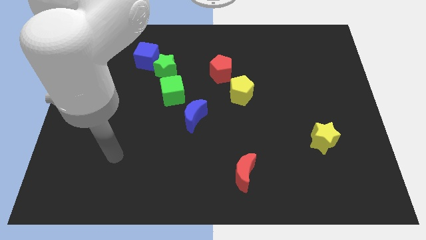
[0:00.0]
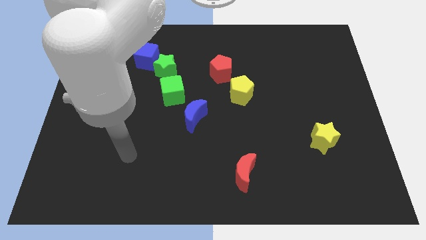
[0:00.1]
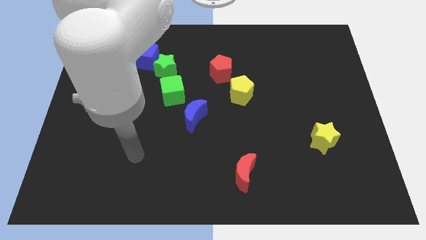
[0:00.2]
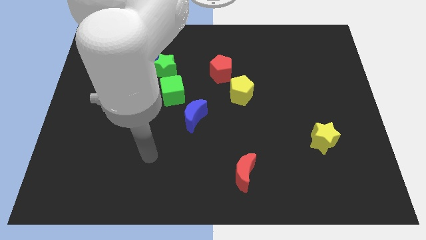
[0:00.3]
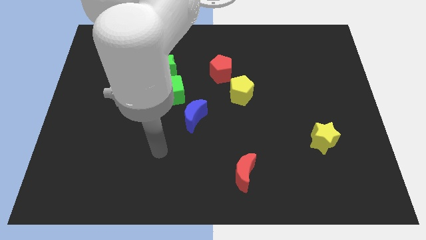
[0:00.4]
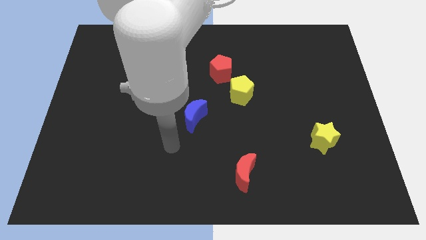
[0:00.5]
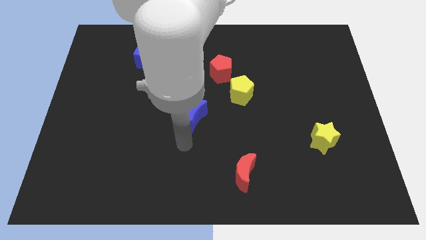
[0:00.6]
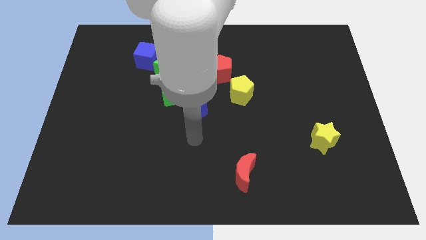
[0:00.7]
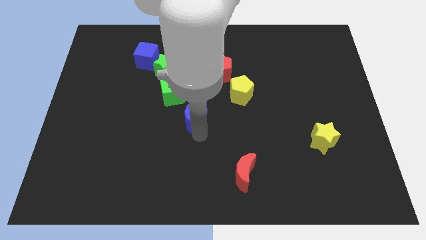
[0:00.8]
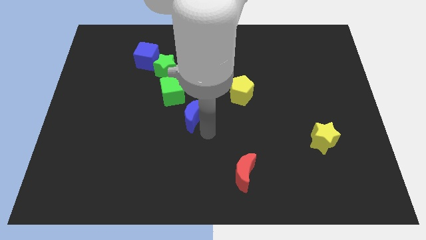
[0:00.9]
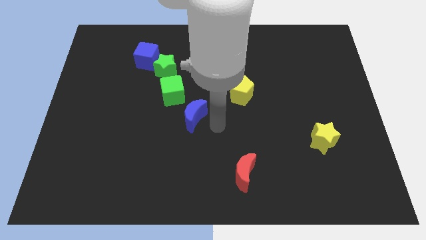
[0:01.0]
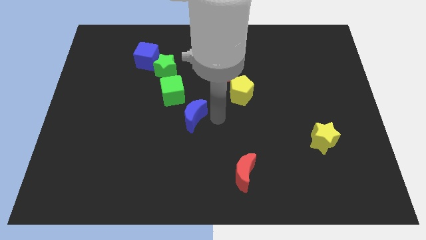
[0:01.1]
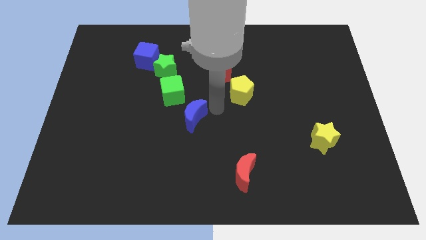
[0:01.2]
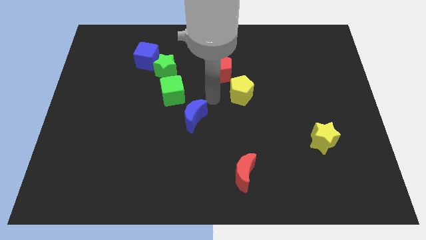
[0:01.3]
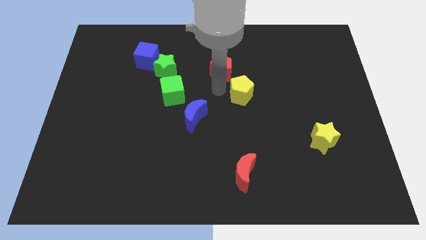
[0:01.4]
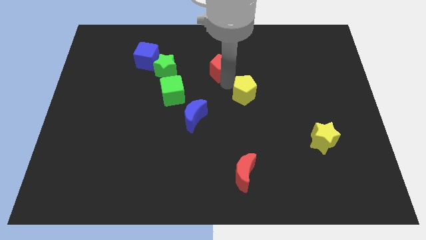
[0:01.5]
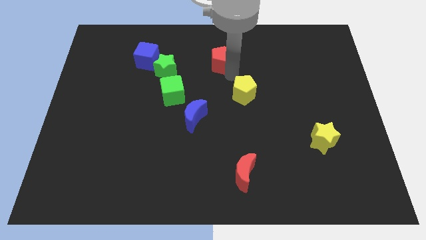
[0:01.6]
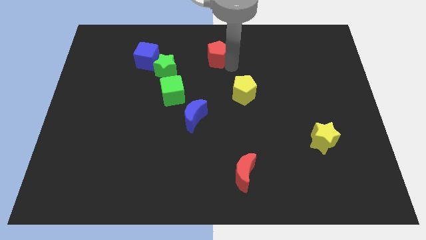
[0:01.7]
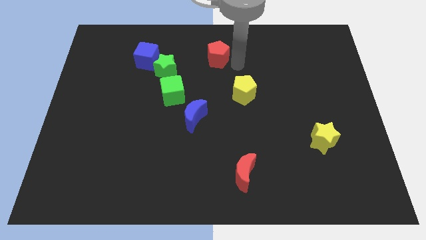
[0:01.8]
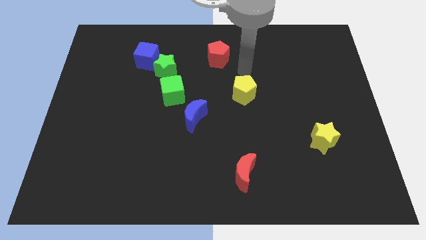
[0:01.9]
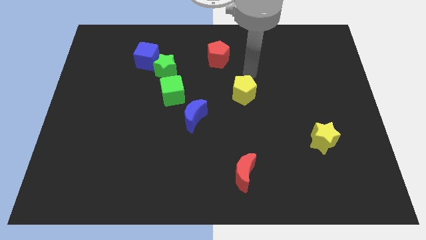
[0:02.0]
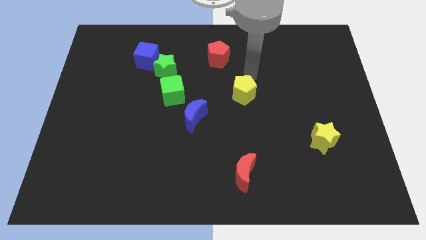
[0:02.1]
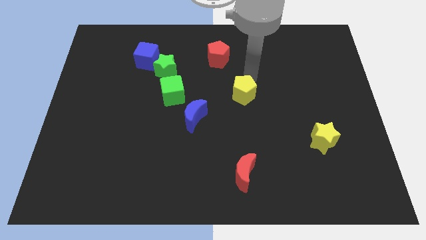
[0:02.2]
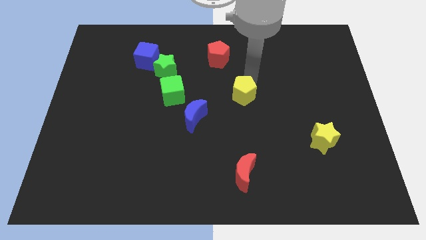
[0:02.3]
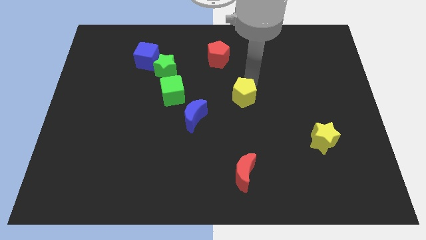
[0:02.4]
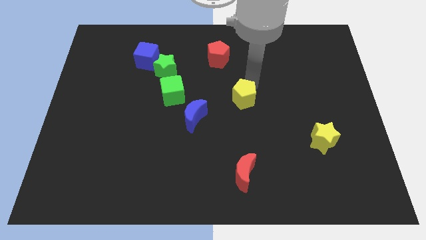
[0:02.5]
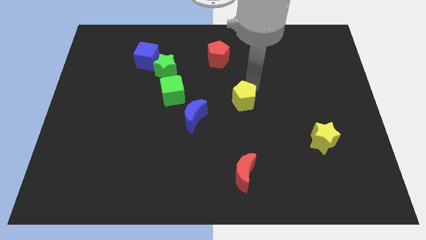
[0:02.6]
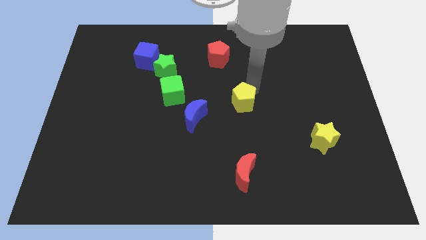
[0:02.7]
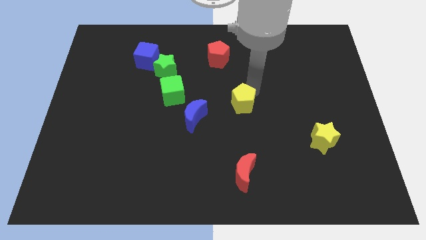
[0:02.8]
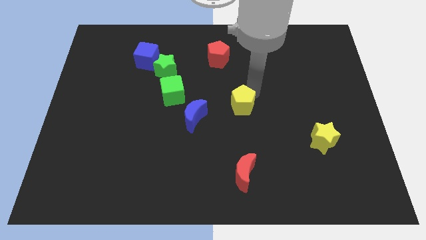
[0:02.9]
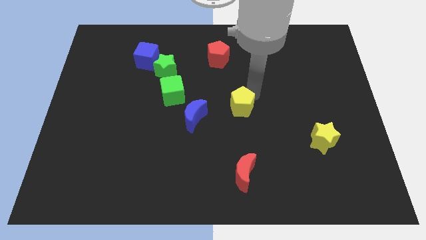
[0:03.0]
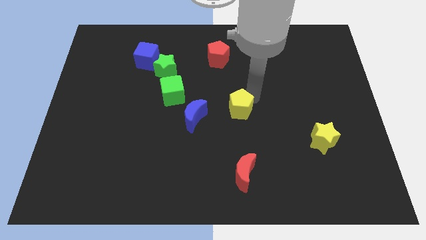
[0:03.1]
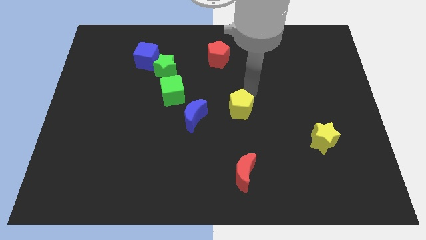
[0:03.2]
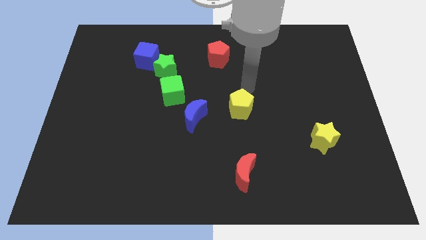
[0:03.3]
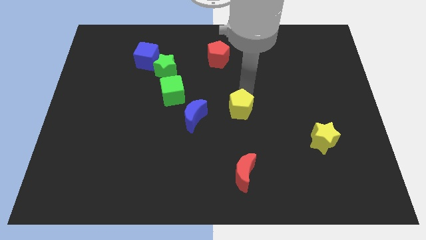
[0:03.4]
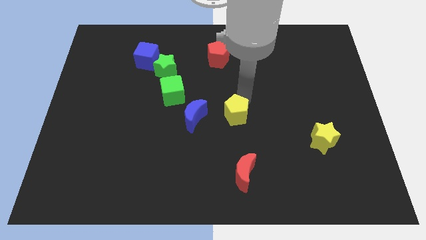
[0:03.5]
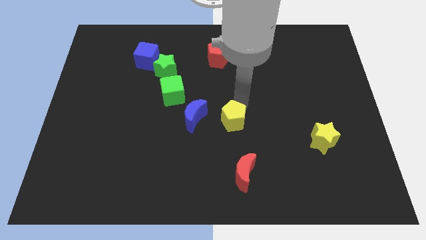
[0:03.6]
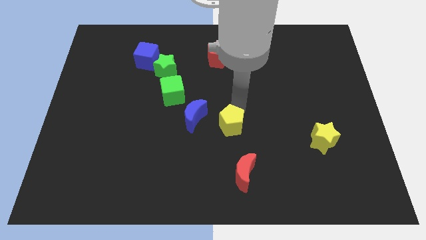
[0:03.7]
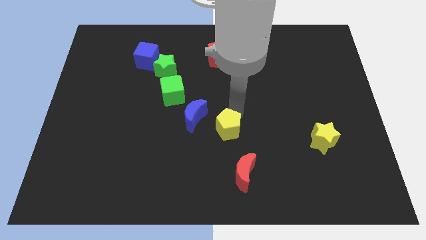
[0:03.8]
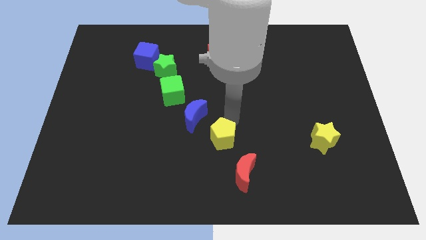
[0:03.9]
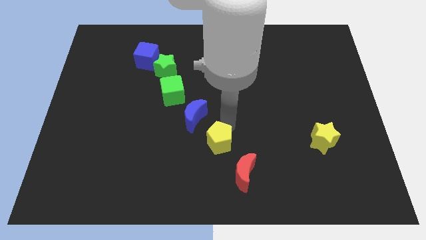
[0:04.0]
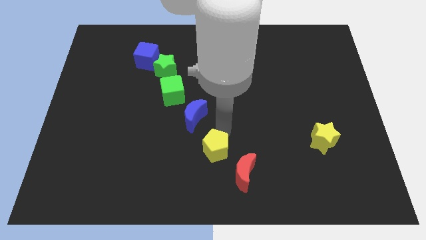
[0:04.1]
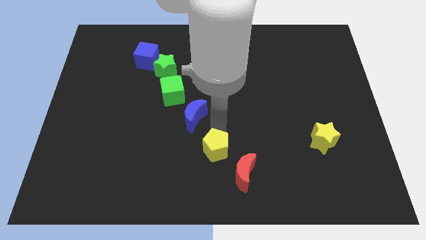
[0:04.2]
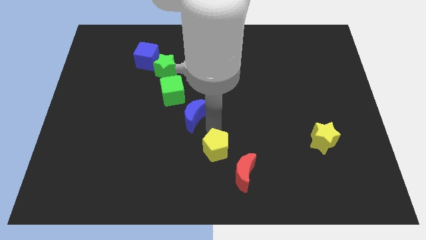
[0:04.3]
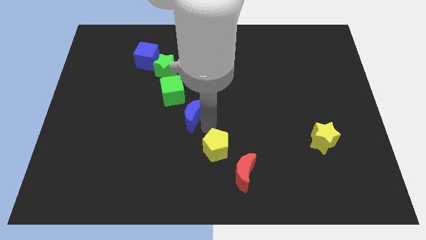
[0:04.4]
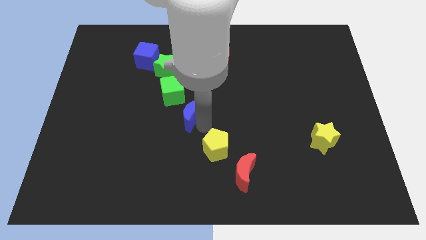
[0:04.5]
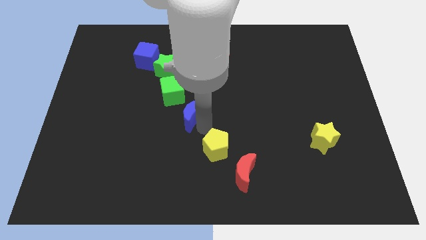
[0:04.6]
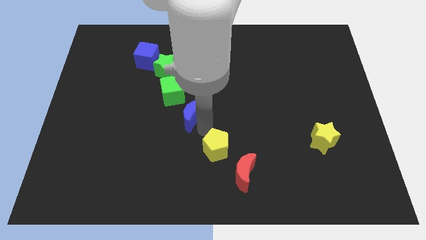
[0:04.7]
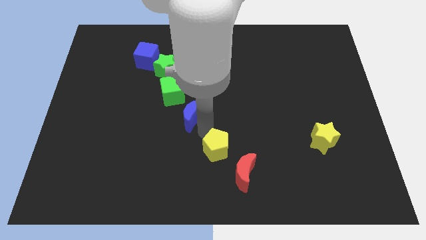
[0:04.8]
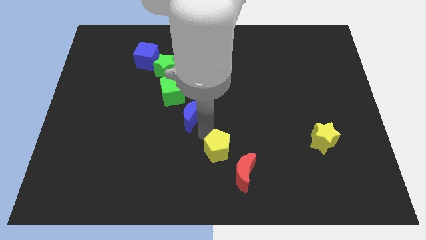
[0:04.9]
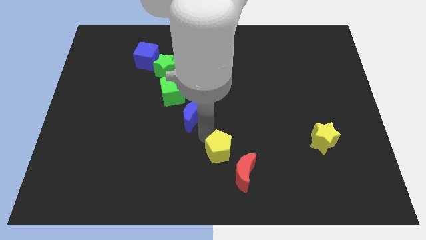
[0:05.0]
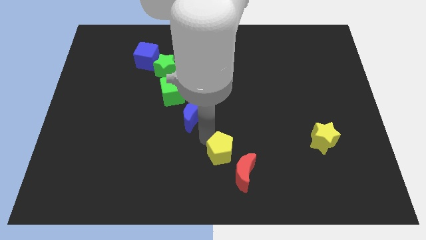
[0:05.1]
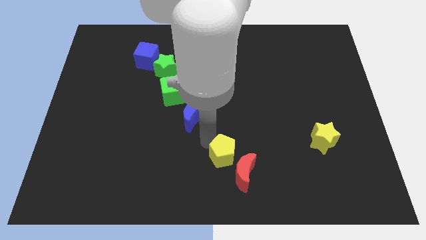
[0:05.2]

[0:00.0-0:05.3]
move the yellow pentagon to the bottom

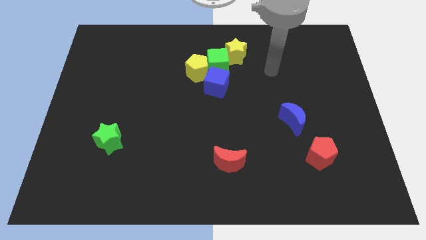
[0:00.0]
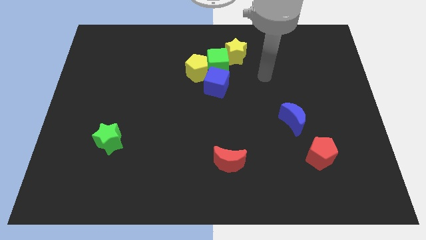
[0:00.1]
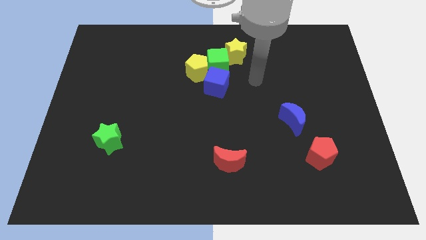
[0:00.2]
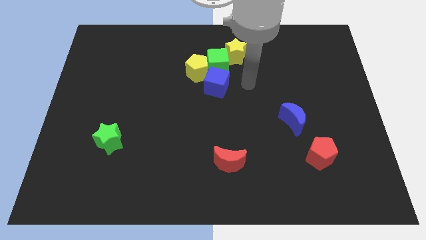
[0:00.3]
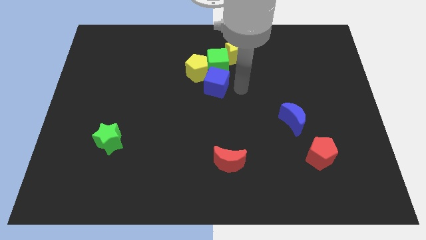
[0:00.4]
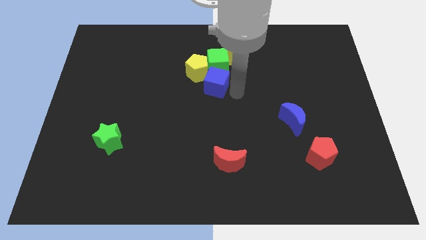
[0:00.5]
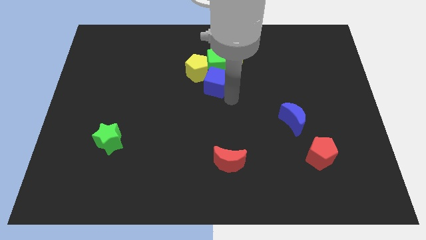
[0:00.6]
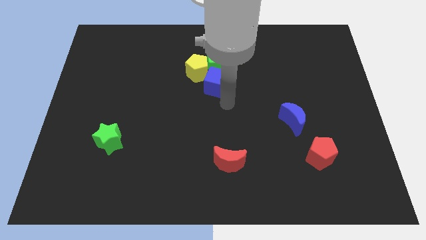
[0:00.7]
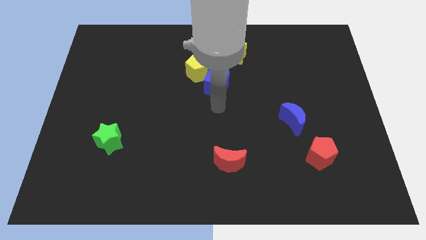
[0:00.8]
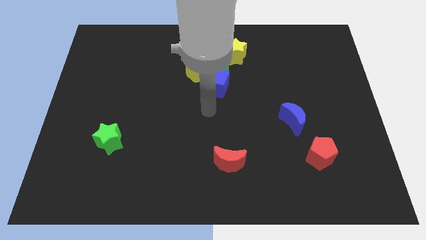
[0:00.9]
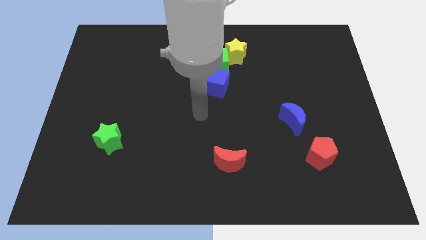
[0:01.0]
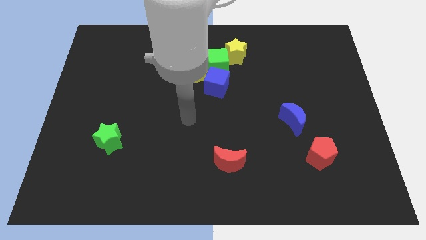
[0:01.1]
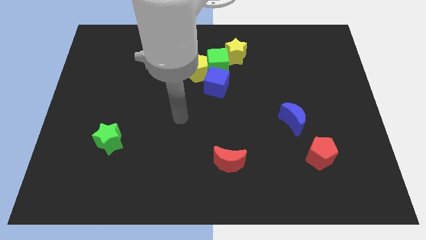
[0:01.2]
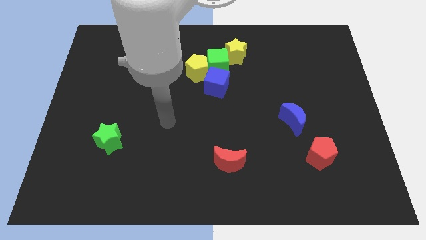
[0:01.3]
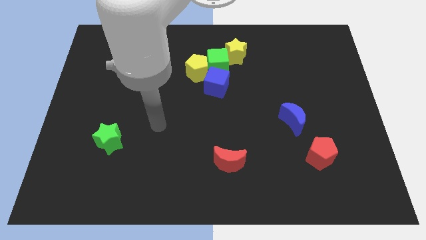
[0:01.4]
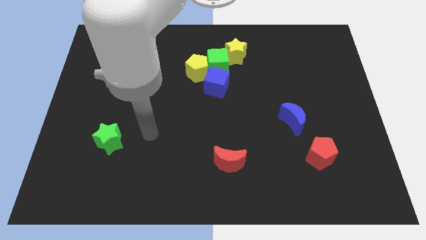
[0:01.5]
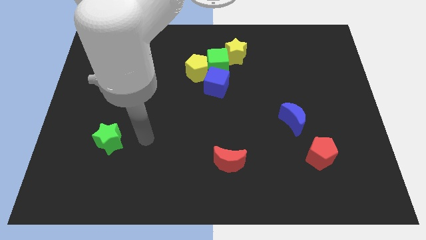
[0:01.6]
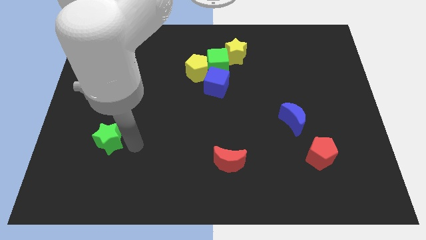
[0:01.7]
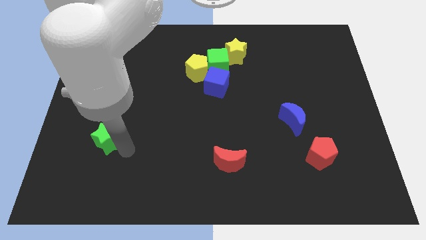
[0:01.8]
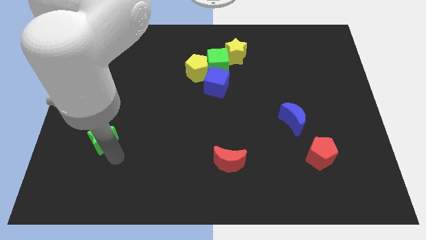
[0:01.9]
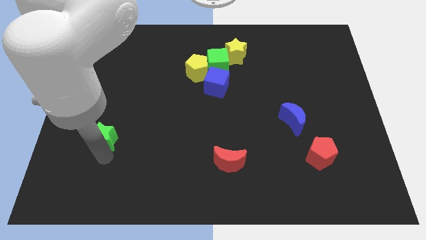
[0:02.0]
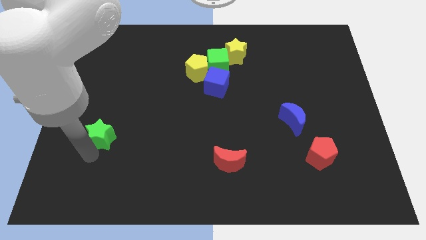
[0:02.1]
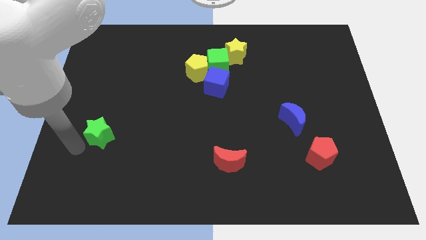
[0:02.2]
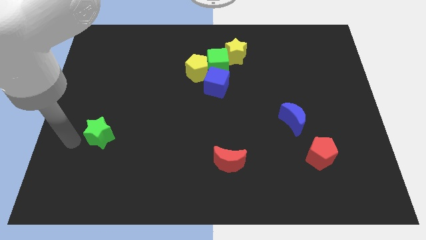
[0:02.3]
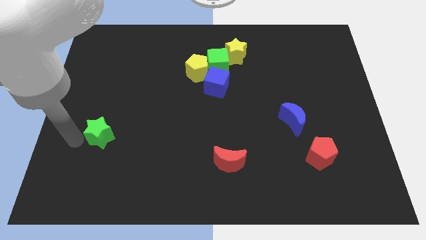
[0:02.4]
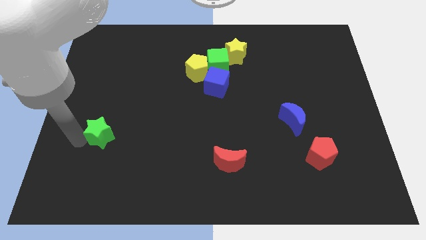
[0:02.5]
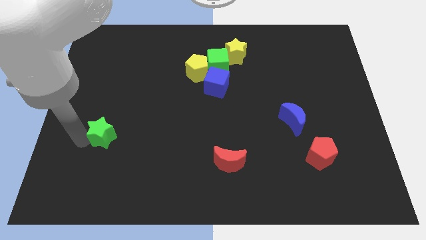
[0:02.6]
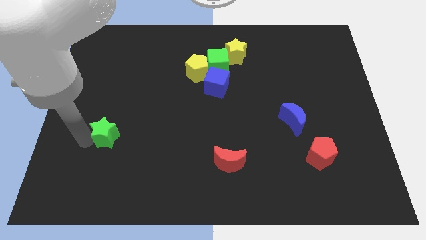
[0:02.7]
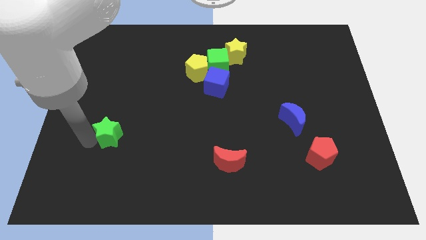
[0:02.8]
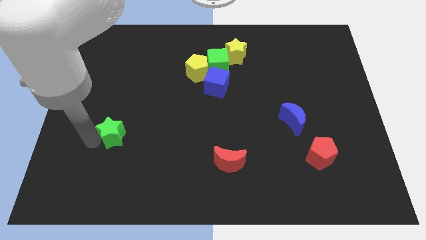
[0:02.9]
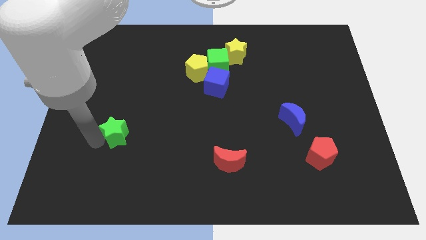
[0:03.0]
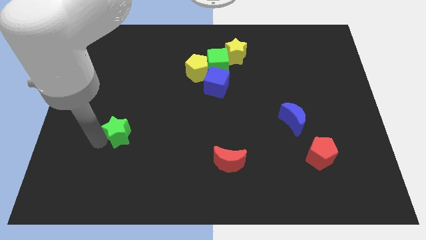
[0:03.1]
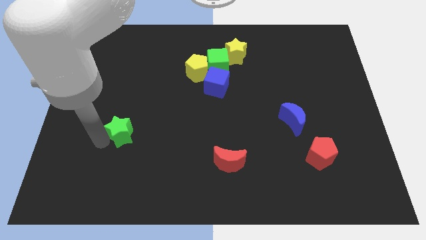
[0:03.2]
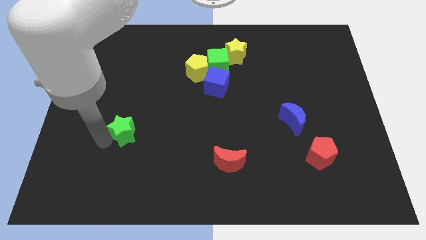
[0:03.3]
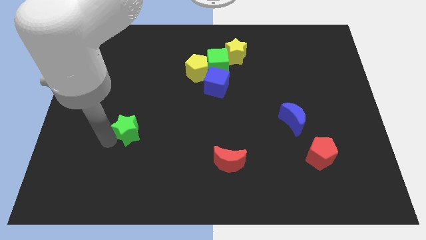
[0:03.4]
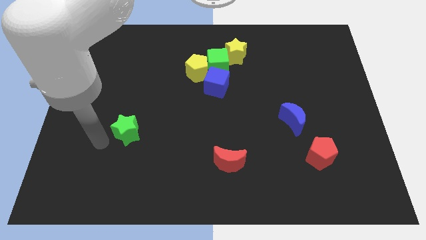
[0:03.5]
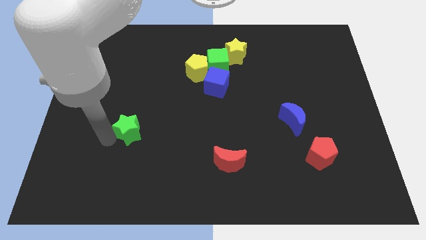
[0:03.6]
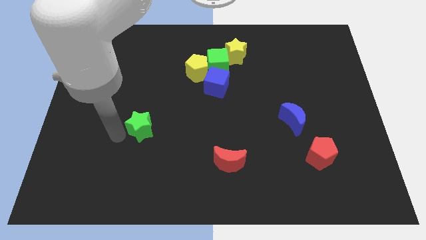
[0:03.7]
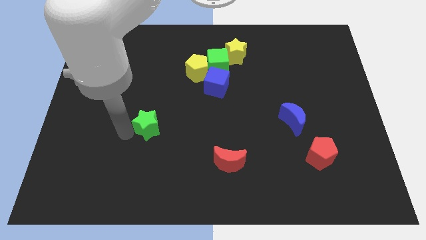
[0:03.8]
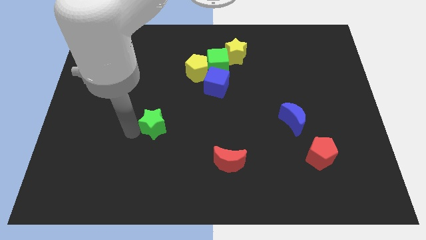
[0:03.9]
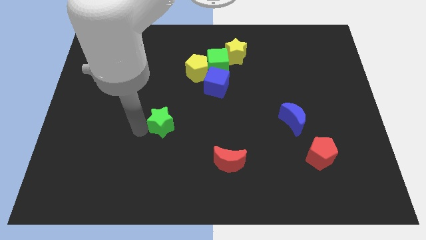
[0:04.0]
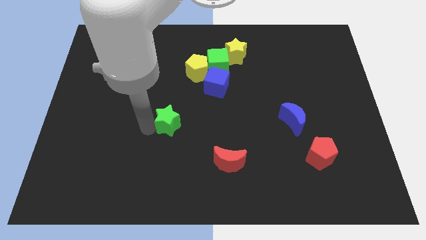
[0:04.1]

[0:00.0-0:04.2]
put the green star to the middle
